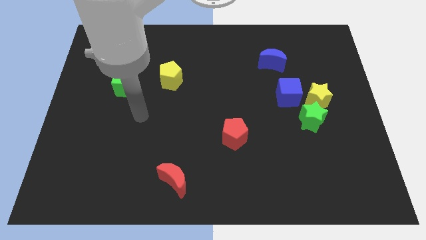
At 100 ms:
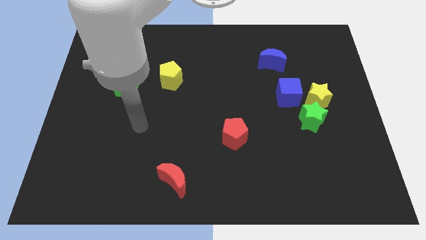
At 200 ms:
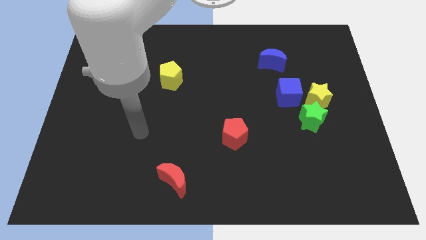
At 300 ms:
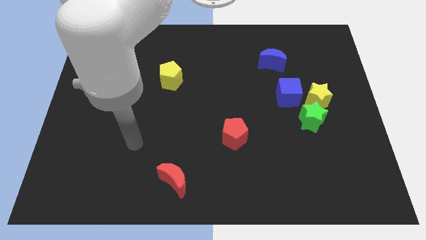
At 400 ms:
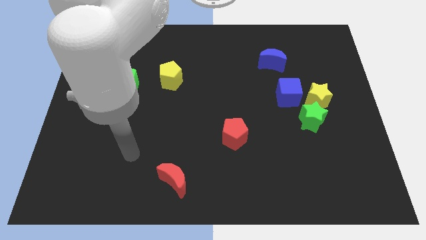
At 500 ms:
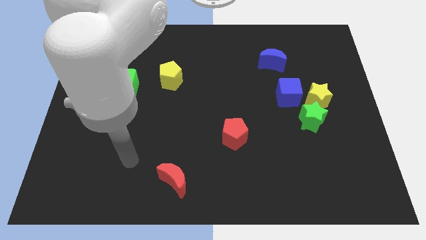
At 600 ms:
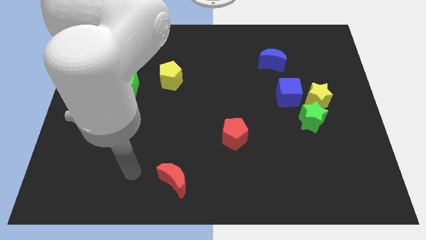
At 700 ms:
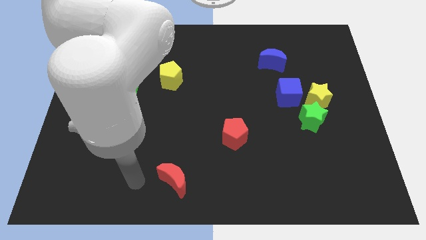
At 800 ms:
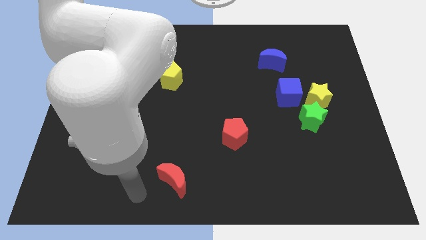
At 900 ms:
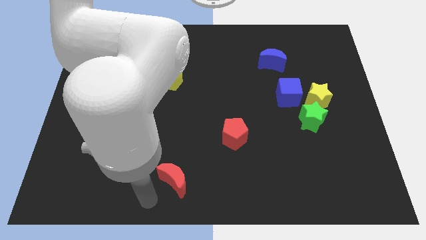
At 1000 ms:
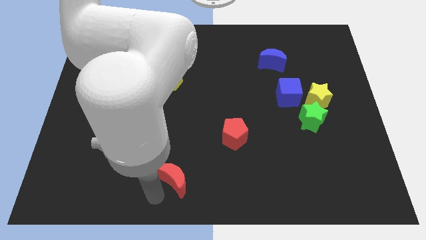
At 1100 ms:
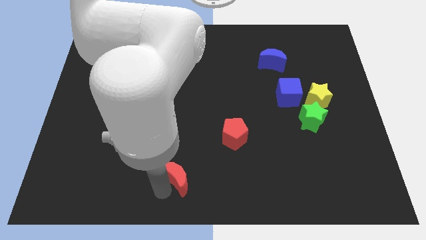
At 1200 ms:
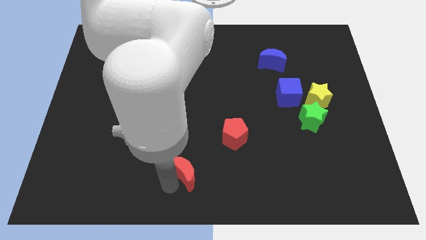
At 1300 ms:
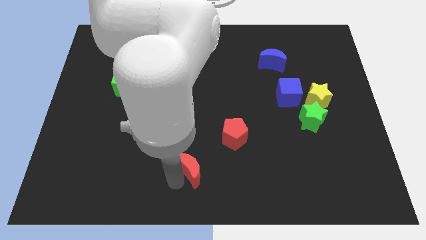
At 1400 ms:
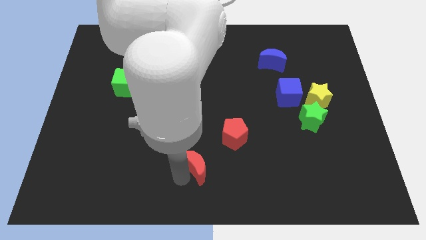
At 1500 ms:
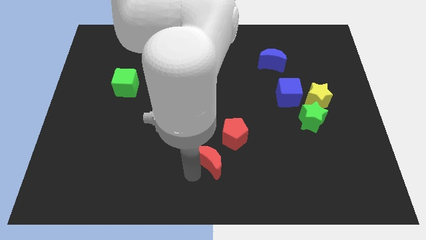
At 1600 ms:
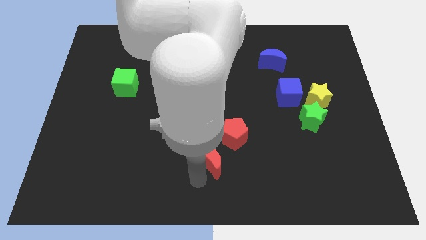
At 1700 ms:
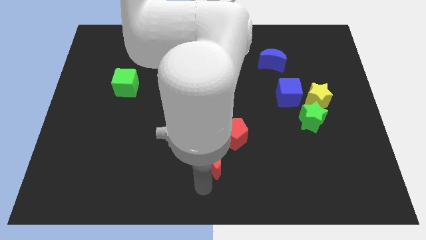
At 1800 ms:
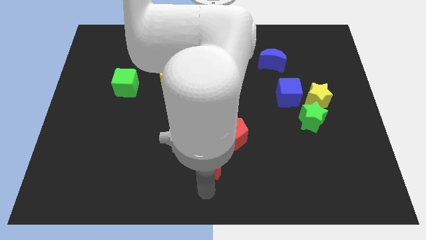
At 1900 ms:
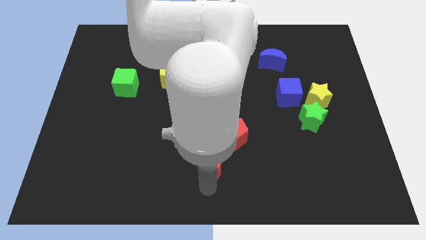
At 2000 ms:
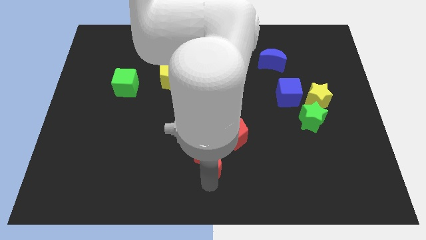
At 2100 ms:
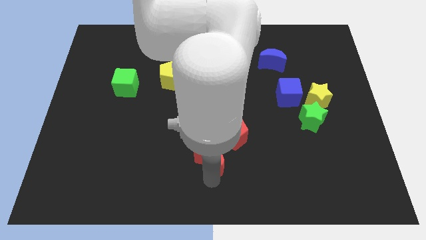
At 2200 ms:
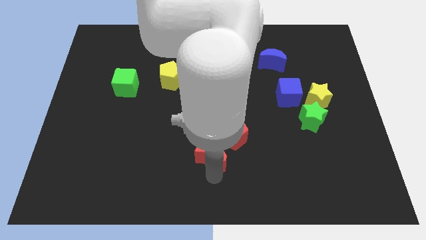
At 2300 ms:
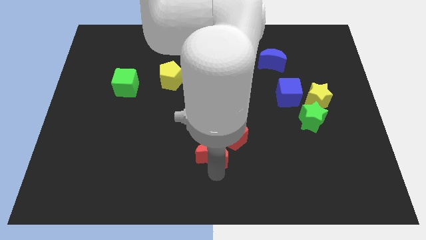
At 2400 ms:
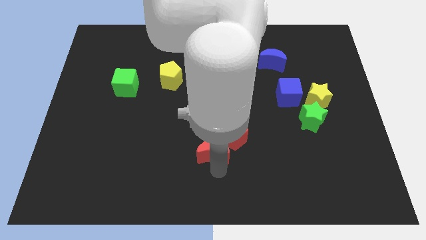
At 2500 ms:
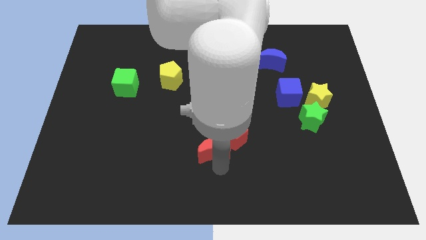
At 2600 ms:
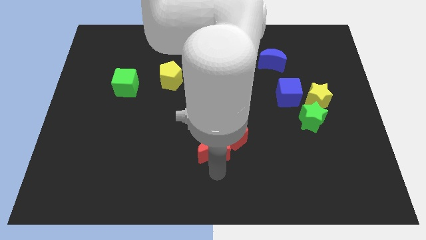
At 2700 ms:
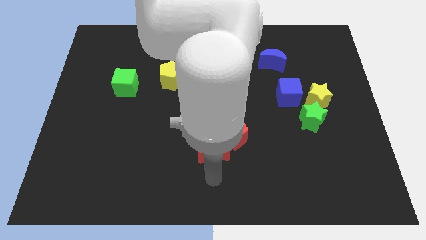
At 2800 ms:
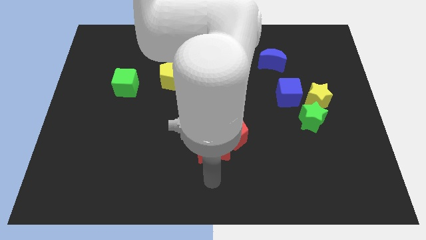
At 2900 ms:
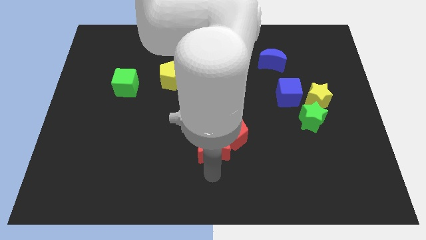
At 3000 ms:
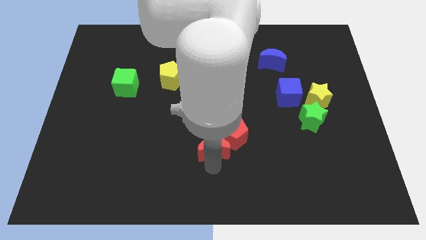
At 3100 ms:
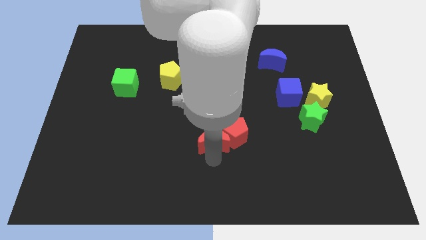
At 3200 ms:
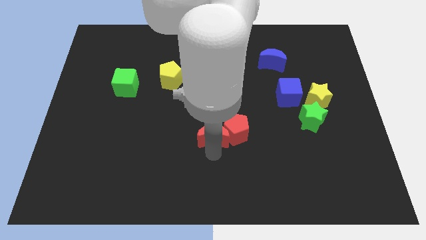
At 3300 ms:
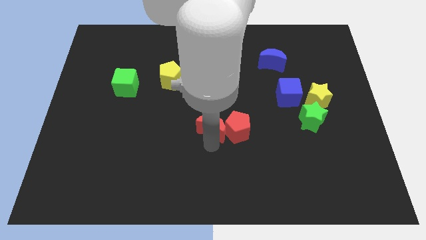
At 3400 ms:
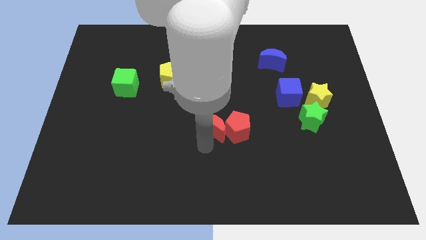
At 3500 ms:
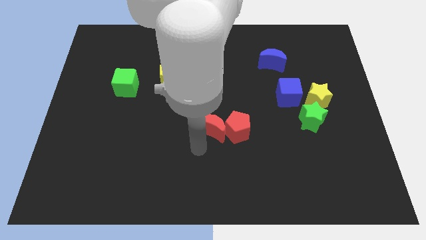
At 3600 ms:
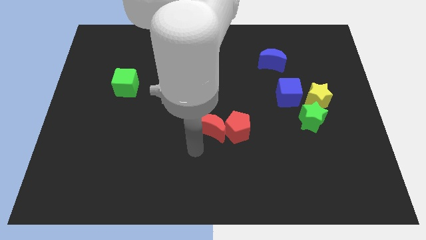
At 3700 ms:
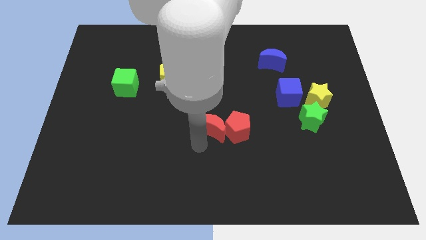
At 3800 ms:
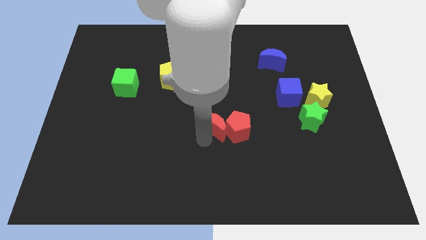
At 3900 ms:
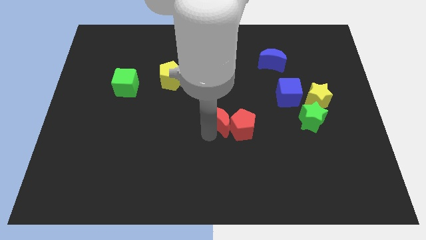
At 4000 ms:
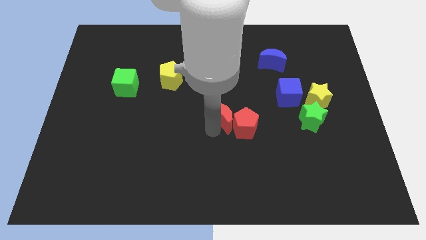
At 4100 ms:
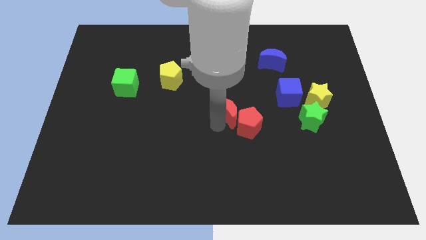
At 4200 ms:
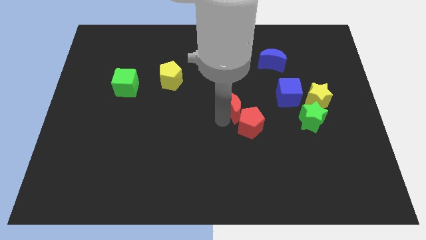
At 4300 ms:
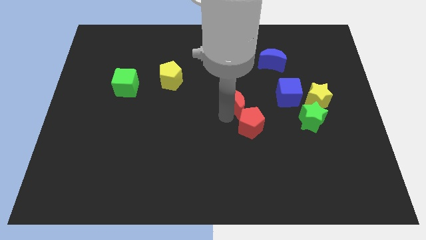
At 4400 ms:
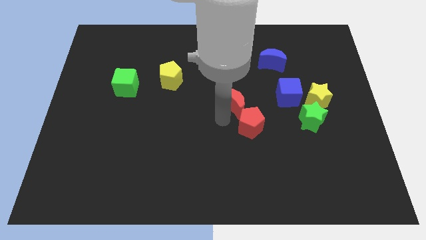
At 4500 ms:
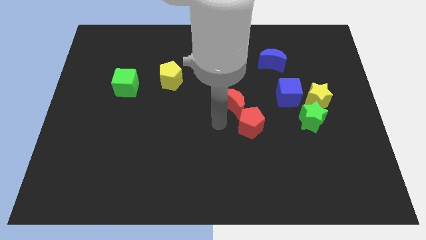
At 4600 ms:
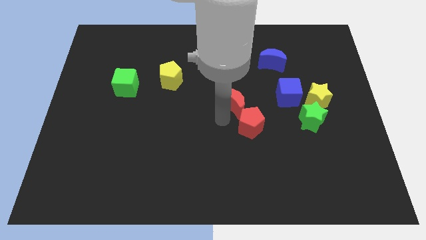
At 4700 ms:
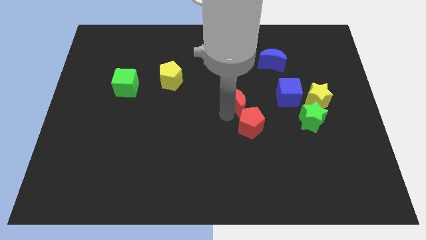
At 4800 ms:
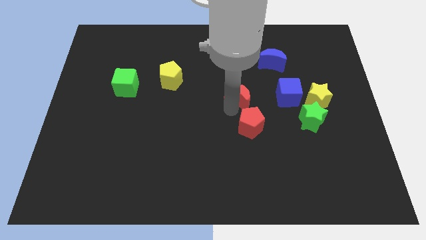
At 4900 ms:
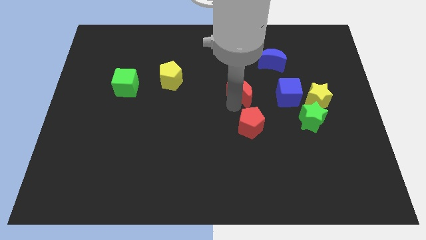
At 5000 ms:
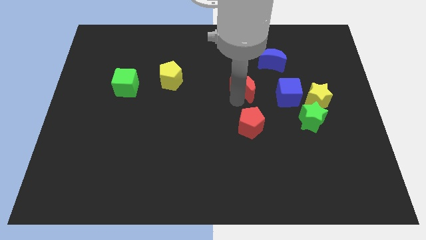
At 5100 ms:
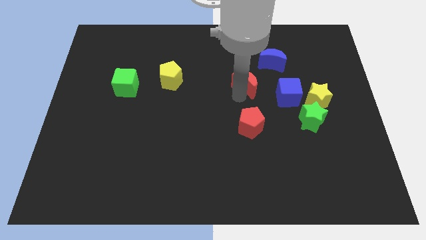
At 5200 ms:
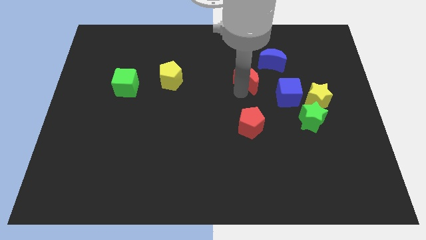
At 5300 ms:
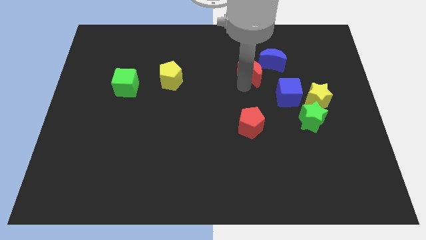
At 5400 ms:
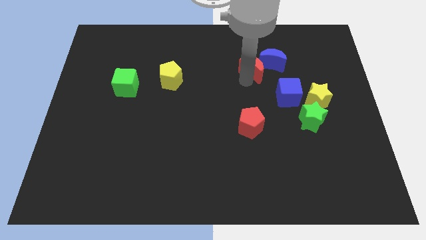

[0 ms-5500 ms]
move the red moon towards the blue moon

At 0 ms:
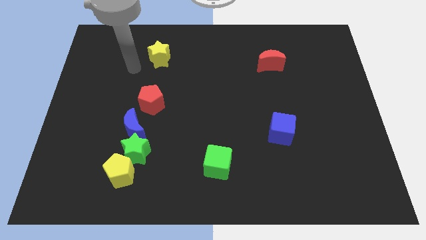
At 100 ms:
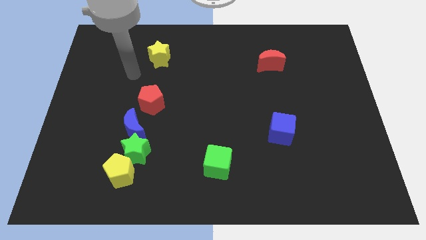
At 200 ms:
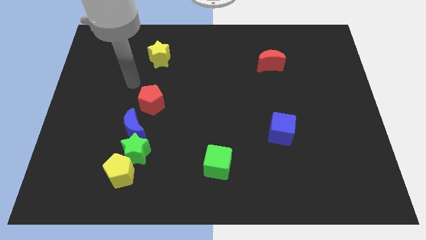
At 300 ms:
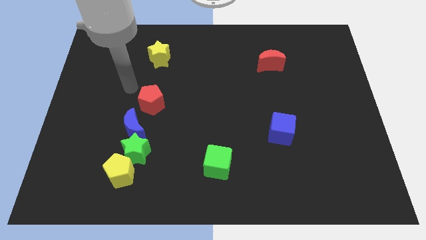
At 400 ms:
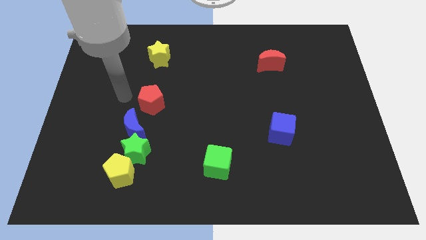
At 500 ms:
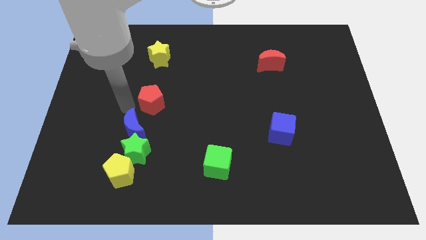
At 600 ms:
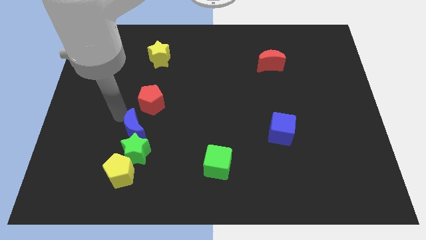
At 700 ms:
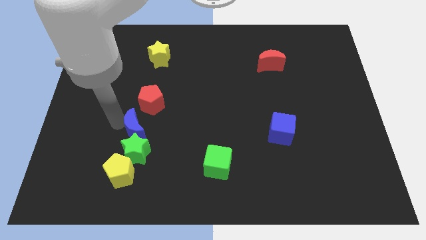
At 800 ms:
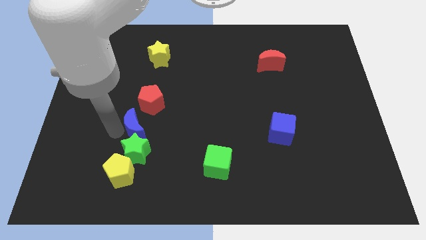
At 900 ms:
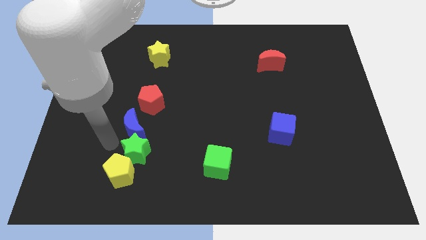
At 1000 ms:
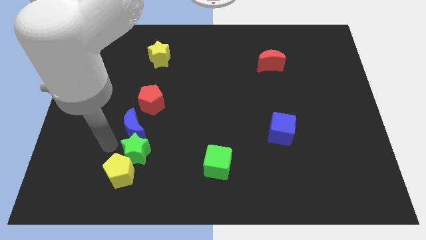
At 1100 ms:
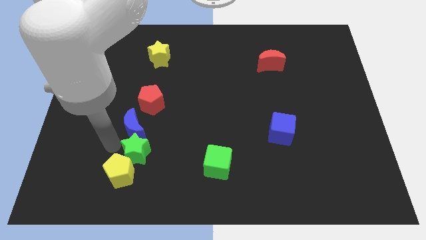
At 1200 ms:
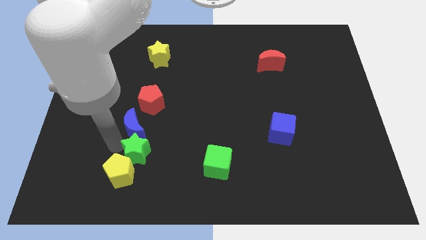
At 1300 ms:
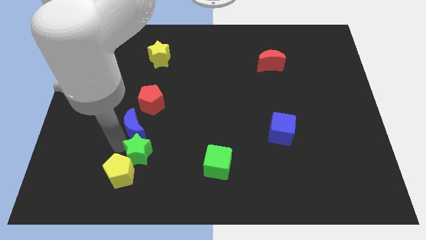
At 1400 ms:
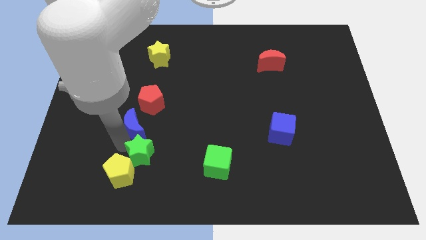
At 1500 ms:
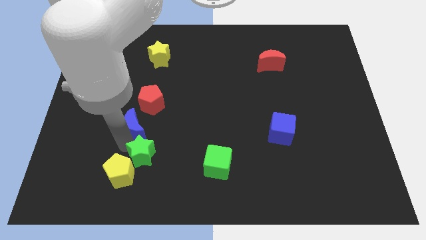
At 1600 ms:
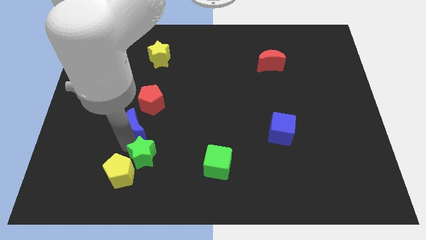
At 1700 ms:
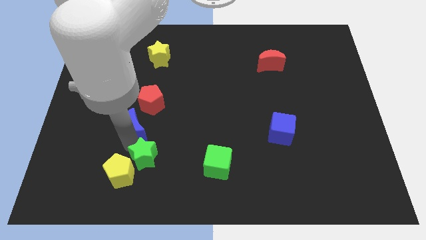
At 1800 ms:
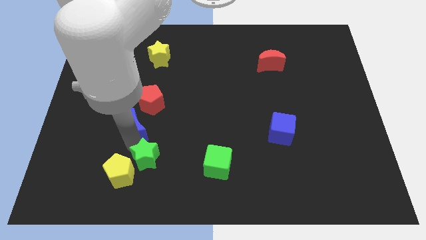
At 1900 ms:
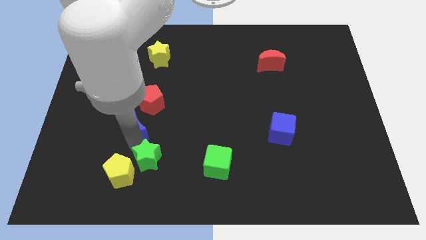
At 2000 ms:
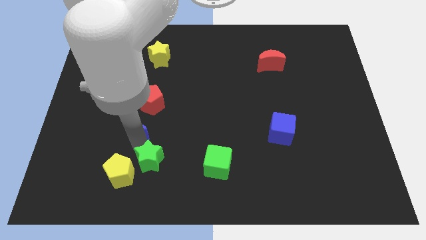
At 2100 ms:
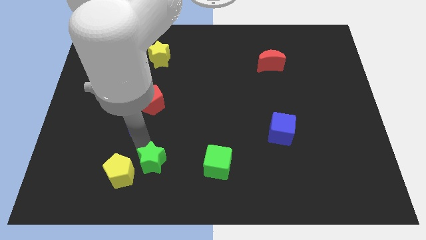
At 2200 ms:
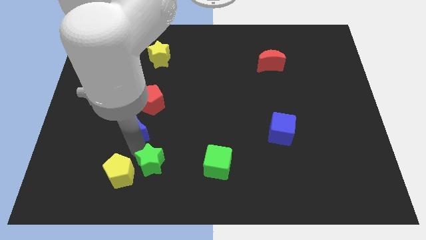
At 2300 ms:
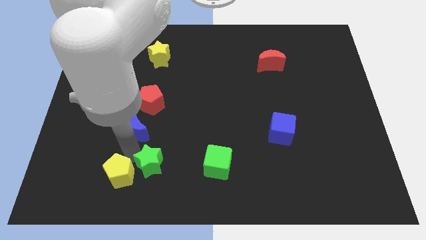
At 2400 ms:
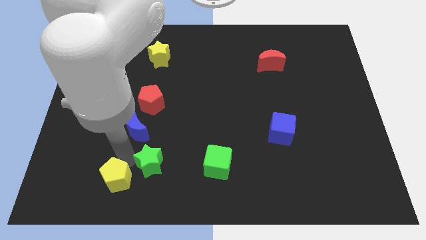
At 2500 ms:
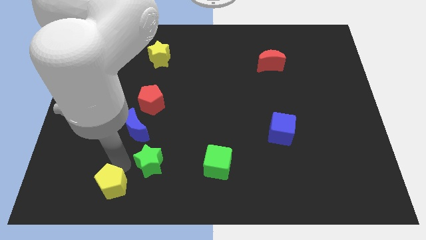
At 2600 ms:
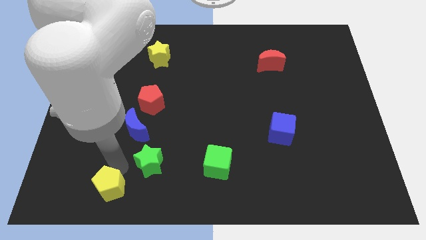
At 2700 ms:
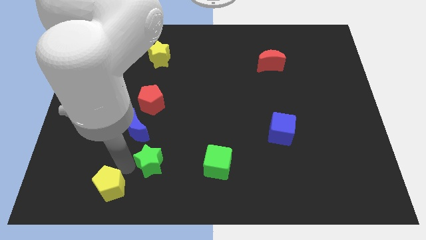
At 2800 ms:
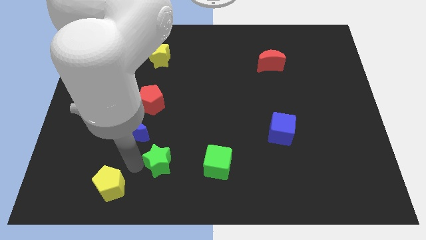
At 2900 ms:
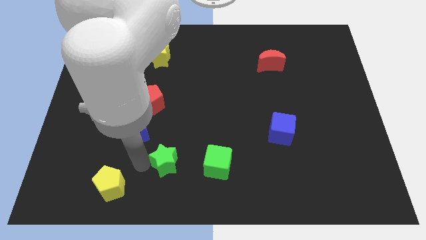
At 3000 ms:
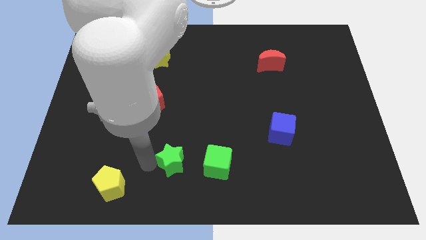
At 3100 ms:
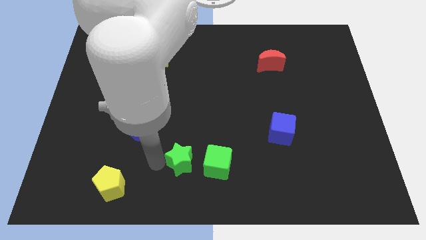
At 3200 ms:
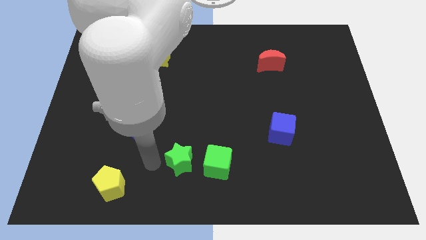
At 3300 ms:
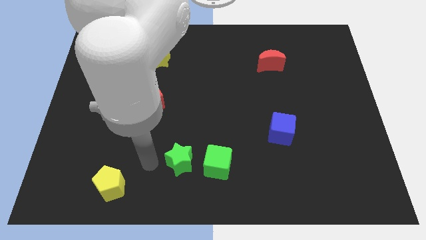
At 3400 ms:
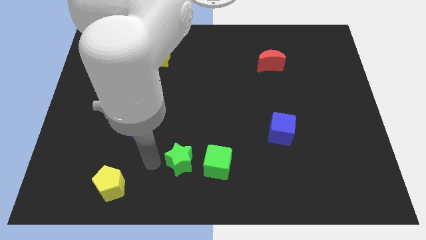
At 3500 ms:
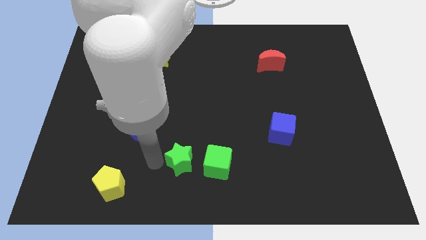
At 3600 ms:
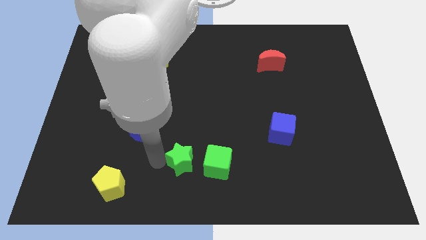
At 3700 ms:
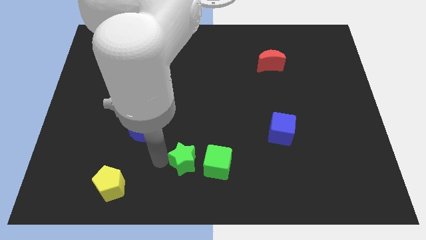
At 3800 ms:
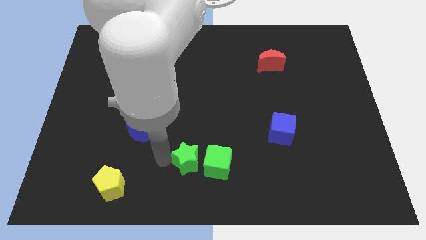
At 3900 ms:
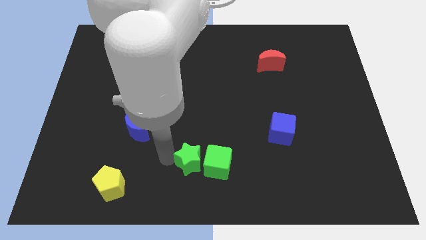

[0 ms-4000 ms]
put the green star to the green cube
